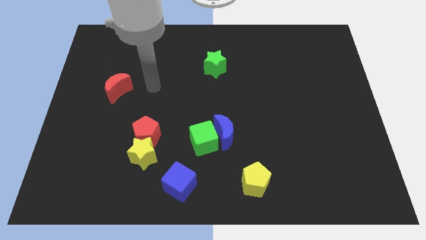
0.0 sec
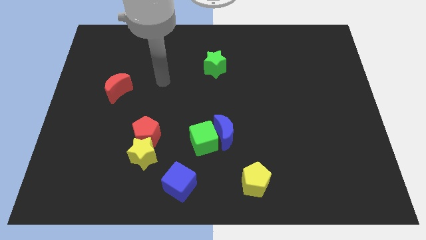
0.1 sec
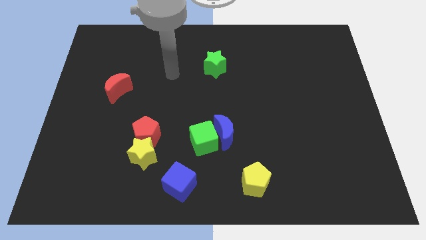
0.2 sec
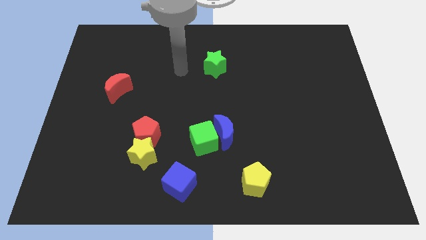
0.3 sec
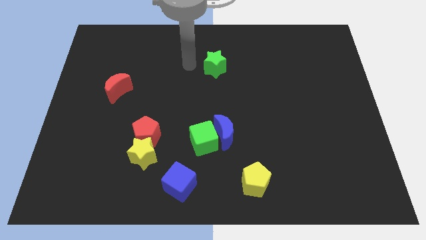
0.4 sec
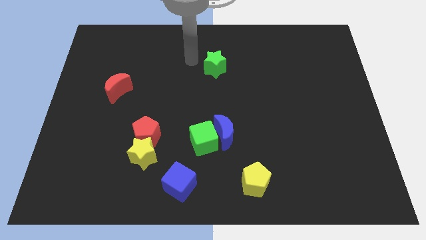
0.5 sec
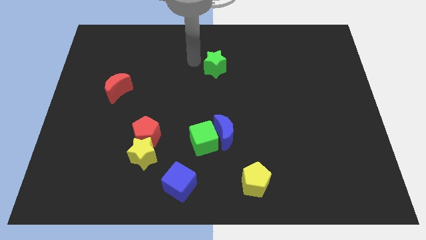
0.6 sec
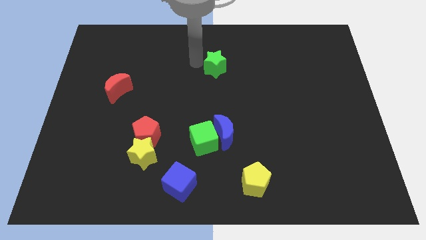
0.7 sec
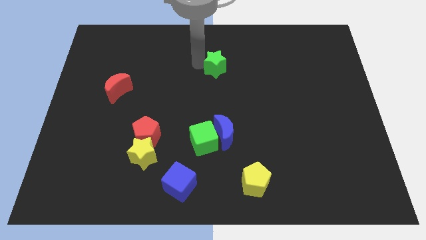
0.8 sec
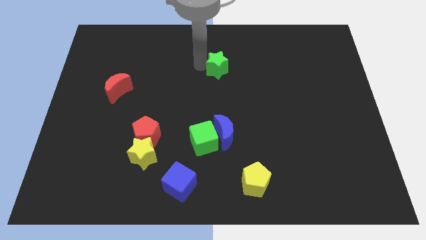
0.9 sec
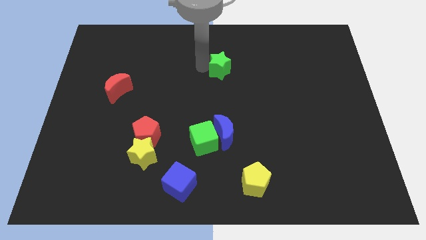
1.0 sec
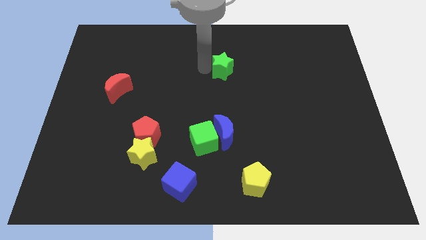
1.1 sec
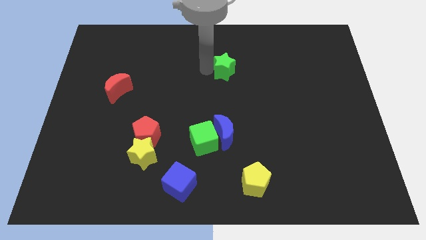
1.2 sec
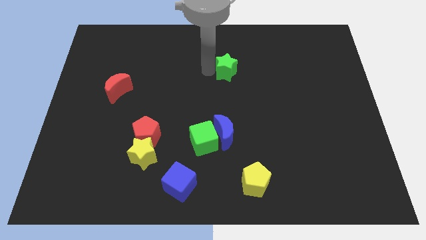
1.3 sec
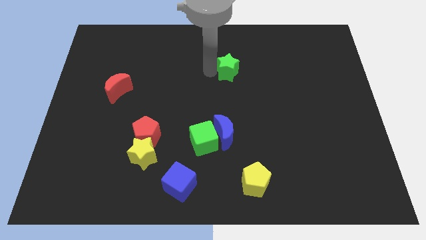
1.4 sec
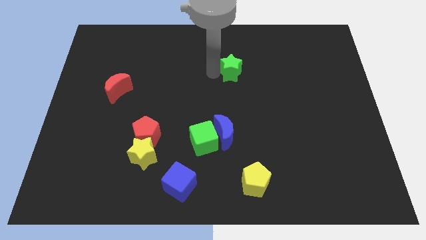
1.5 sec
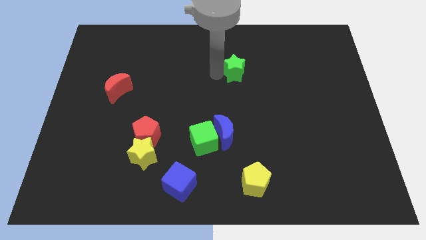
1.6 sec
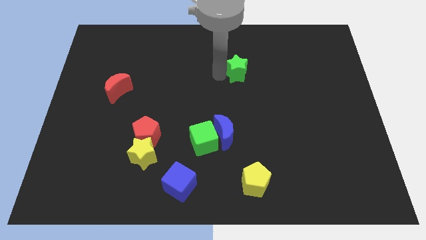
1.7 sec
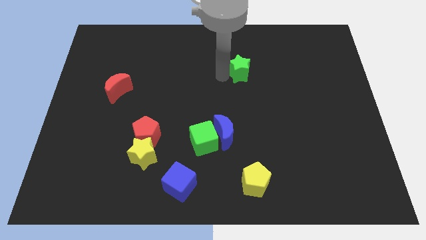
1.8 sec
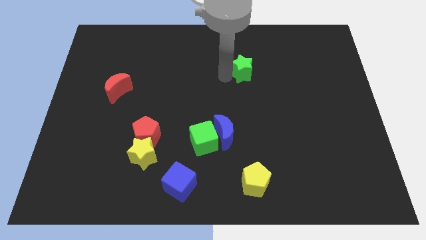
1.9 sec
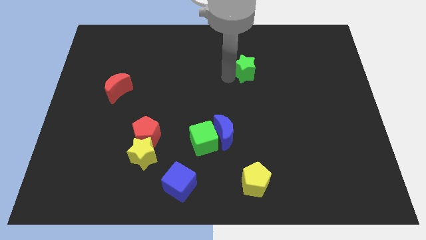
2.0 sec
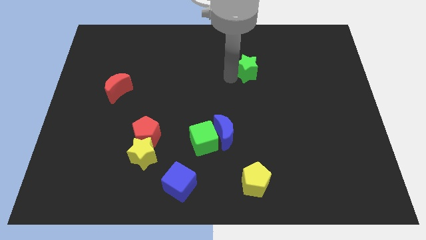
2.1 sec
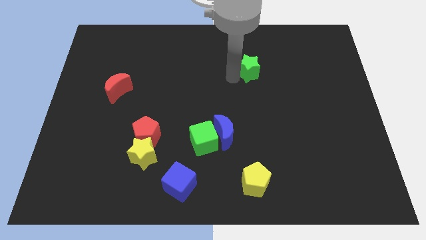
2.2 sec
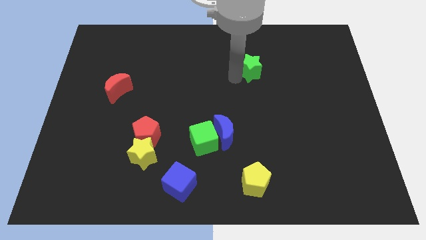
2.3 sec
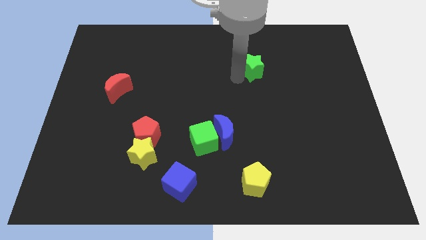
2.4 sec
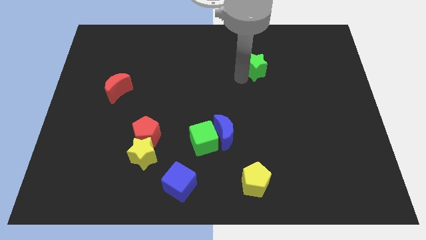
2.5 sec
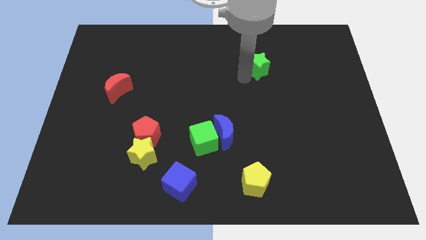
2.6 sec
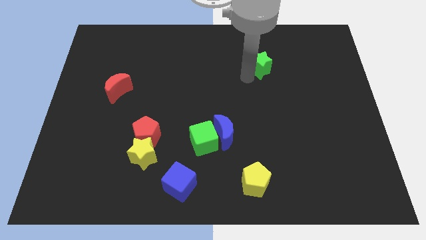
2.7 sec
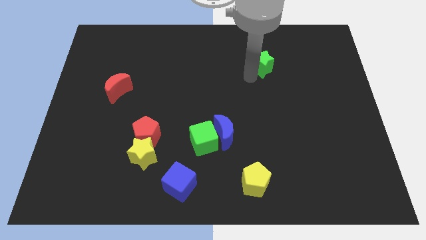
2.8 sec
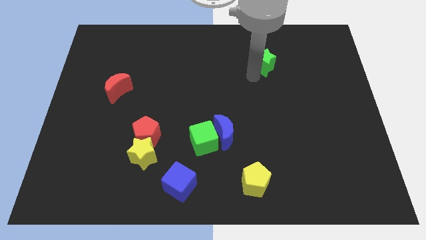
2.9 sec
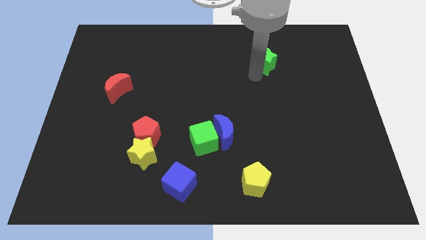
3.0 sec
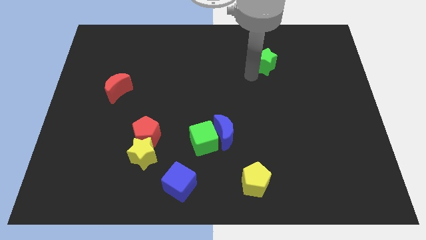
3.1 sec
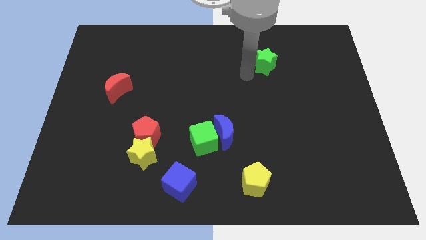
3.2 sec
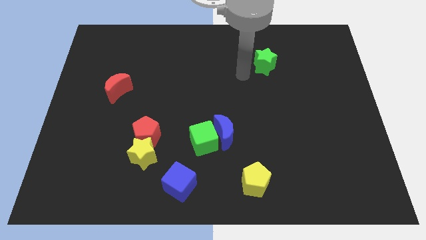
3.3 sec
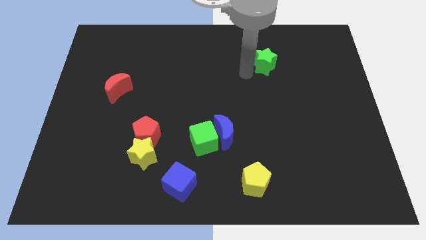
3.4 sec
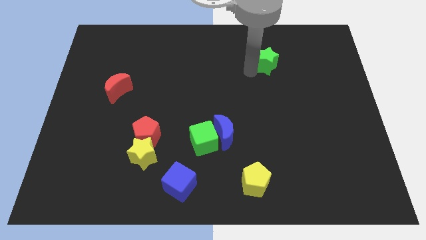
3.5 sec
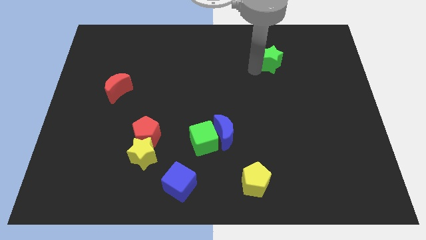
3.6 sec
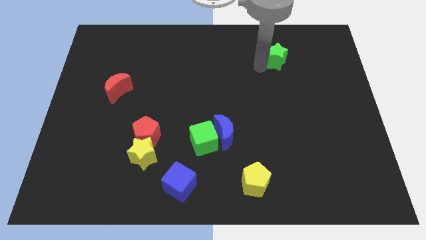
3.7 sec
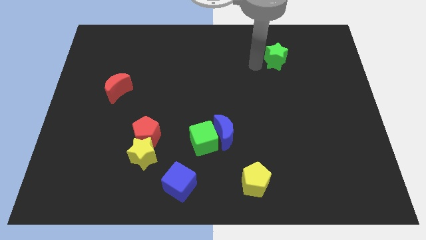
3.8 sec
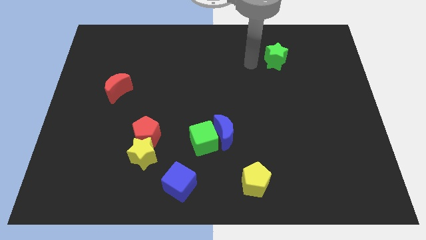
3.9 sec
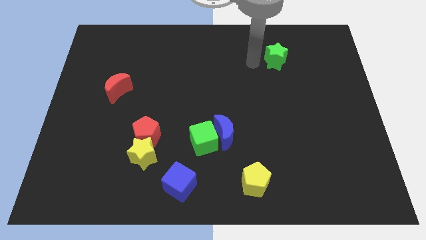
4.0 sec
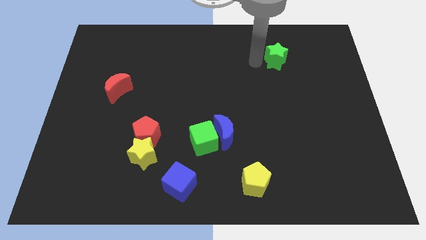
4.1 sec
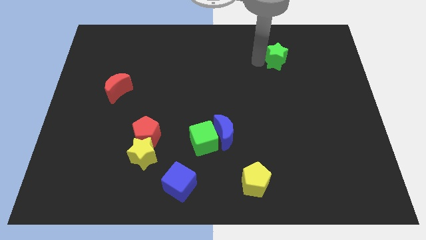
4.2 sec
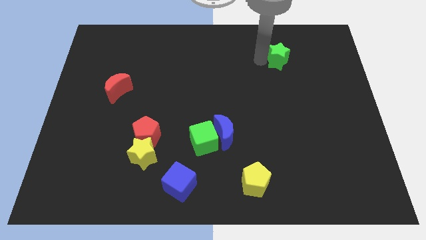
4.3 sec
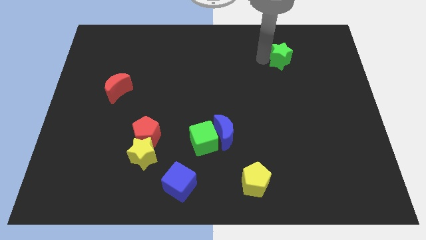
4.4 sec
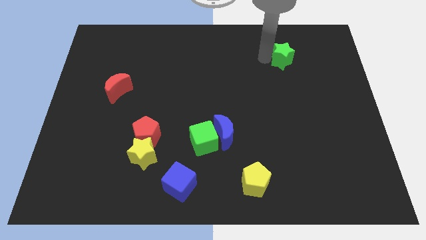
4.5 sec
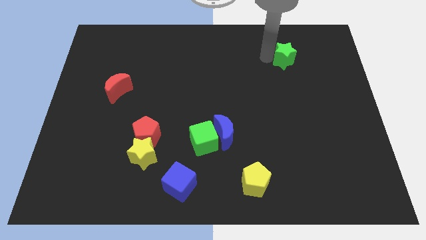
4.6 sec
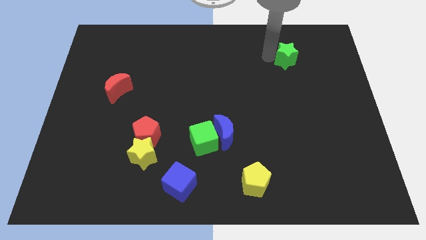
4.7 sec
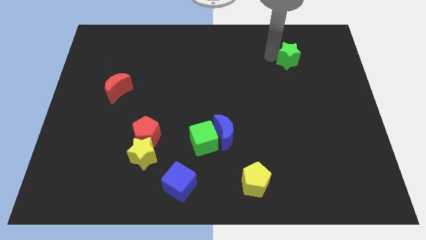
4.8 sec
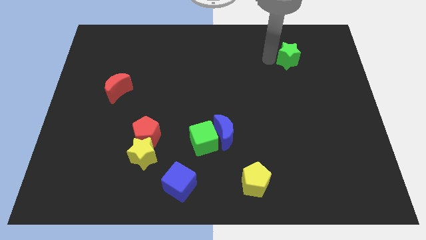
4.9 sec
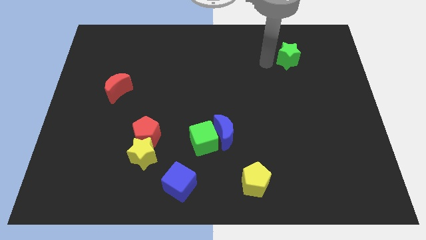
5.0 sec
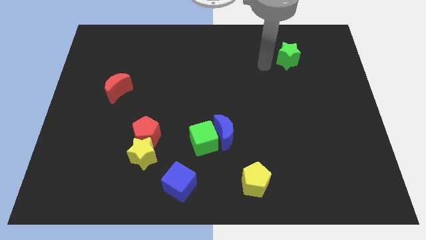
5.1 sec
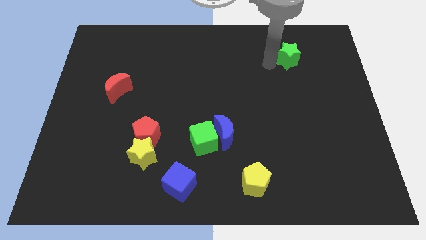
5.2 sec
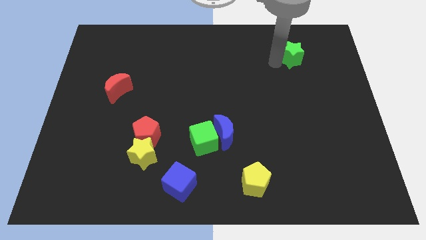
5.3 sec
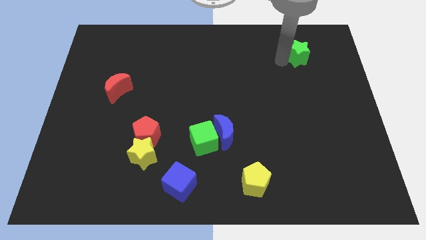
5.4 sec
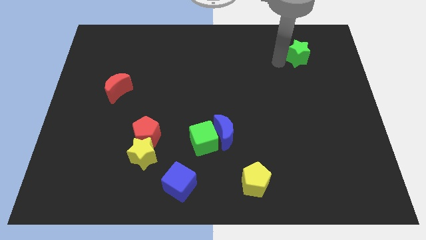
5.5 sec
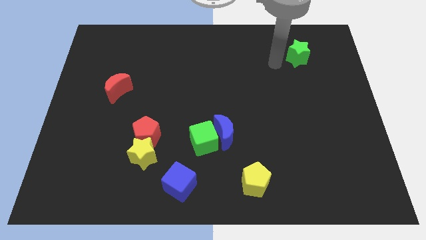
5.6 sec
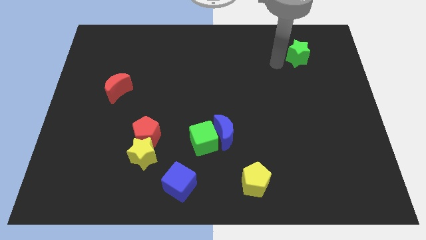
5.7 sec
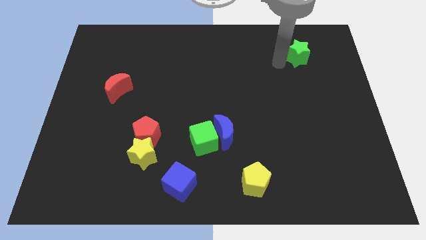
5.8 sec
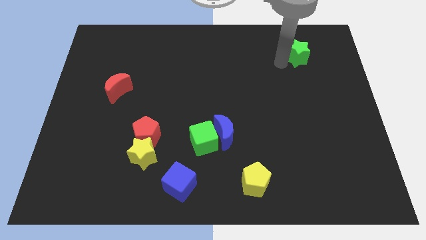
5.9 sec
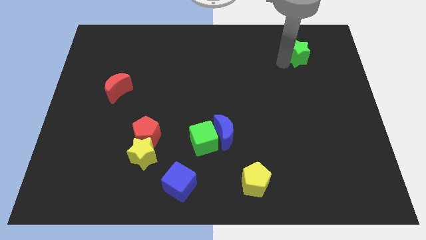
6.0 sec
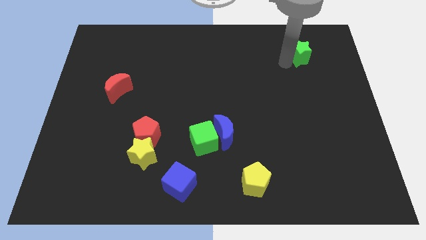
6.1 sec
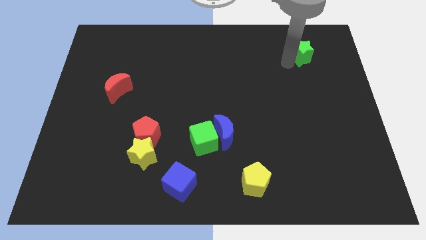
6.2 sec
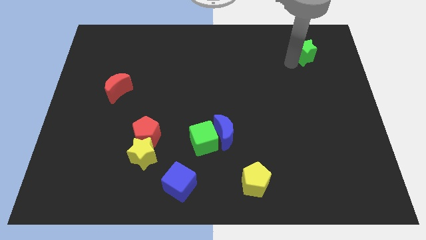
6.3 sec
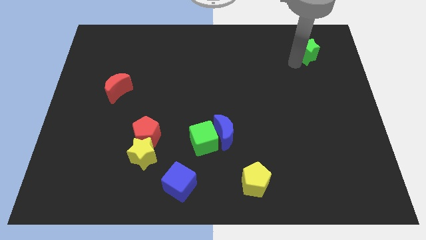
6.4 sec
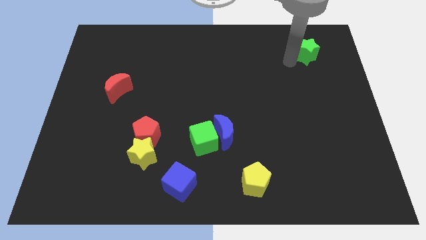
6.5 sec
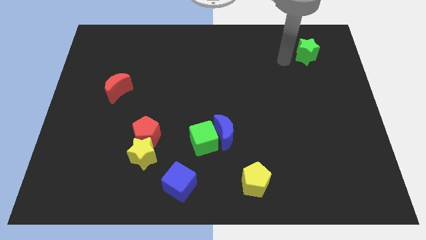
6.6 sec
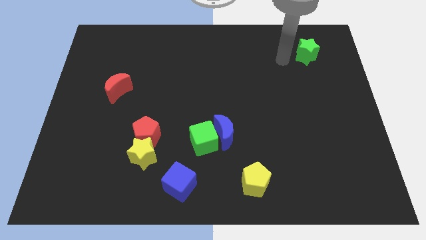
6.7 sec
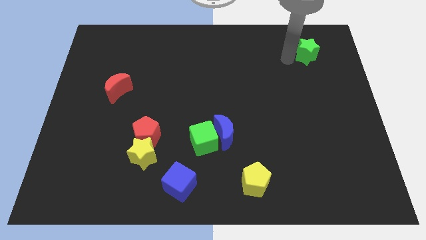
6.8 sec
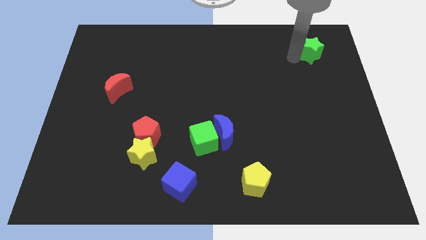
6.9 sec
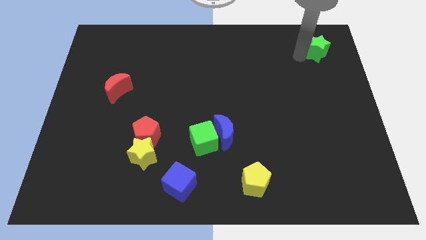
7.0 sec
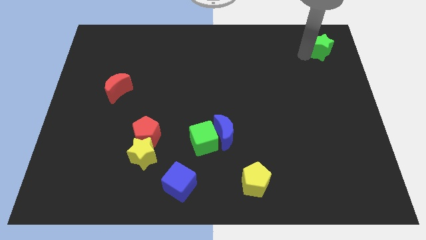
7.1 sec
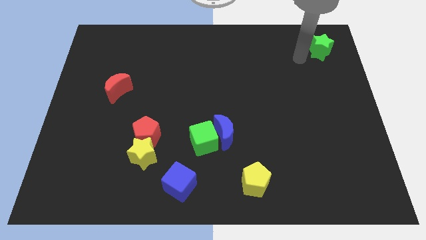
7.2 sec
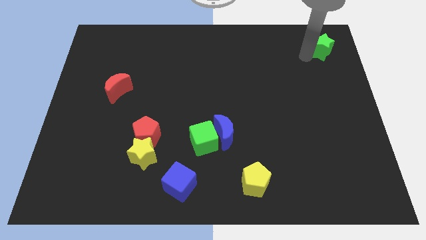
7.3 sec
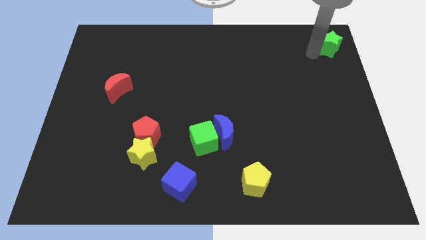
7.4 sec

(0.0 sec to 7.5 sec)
push the green star to the top right of the board
